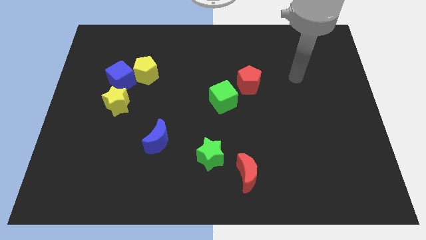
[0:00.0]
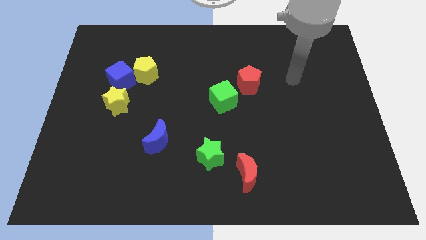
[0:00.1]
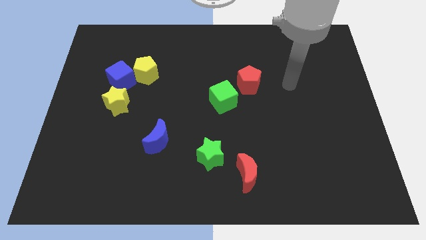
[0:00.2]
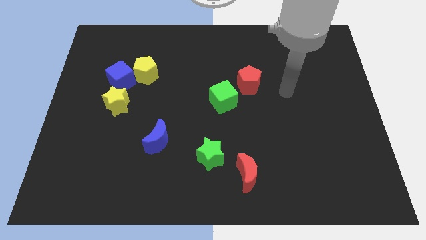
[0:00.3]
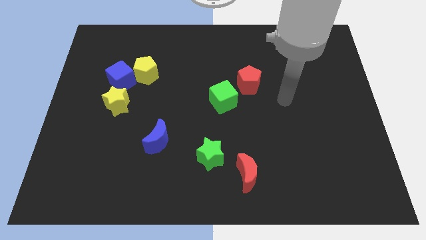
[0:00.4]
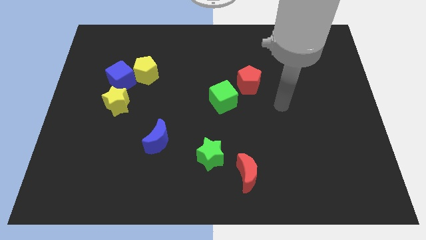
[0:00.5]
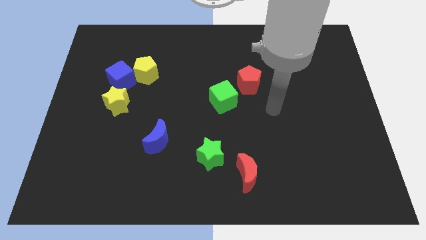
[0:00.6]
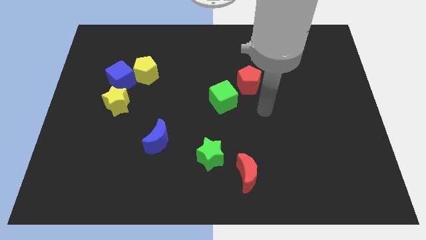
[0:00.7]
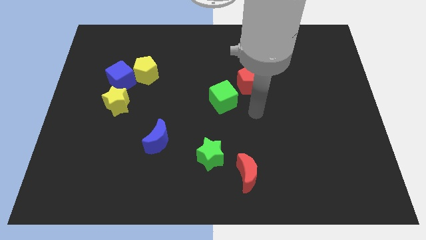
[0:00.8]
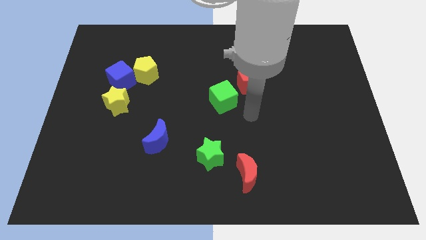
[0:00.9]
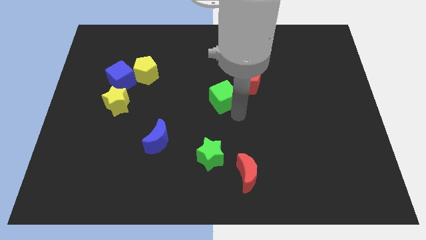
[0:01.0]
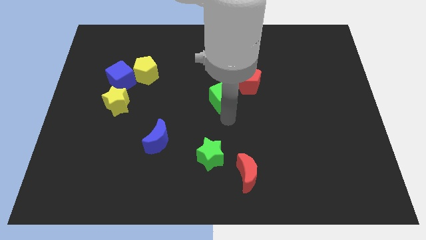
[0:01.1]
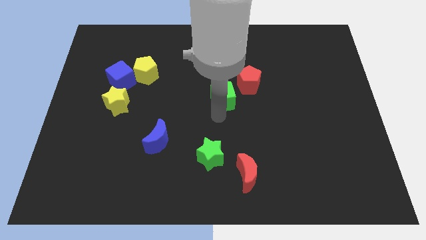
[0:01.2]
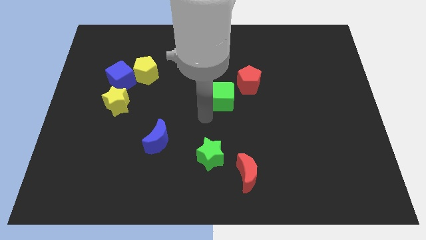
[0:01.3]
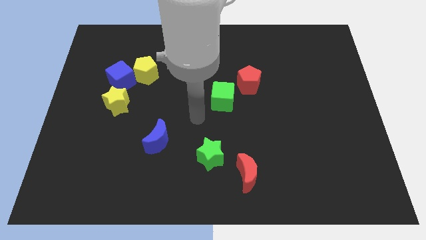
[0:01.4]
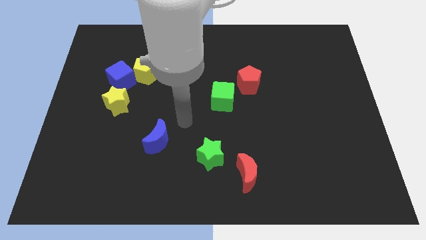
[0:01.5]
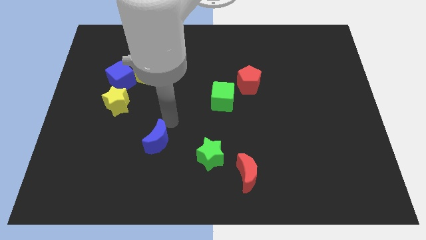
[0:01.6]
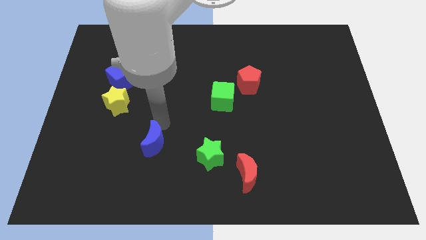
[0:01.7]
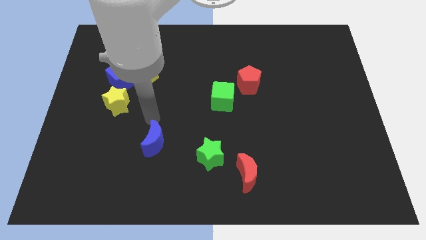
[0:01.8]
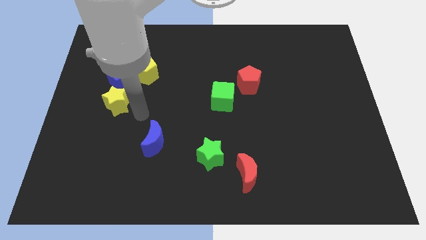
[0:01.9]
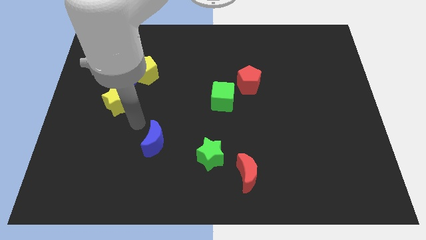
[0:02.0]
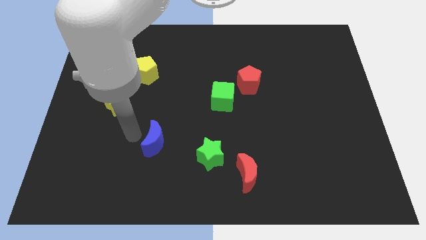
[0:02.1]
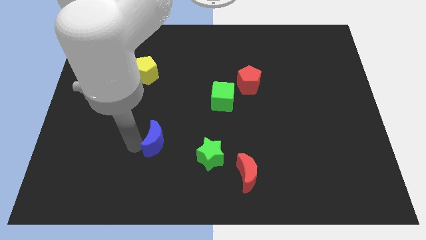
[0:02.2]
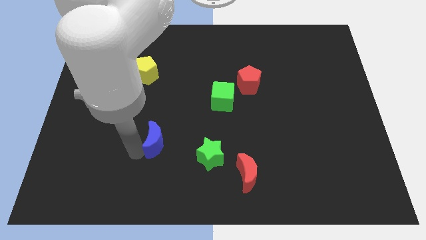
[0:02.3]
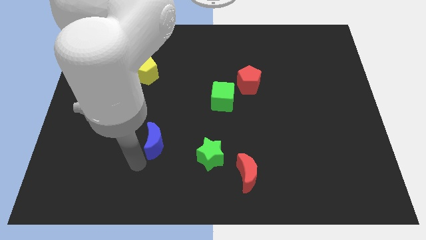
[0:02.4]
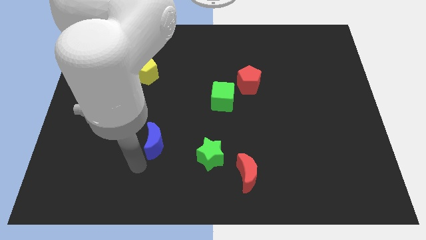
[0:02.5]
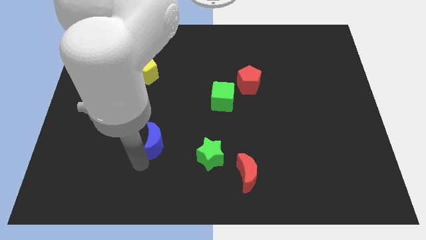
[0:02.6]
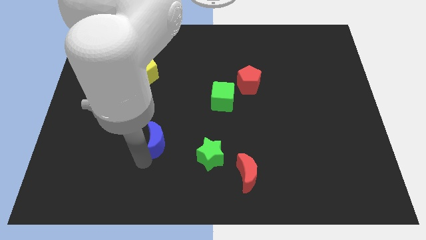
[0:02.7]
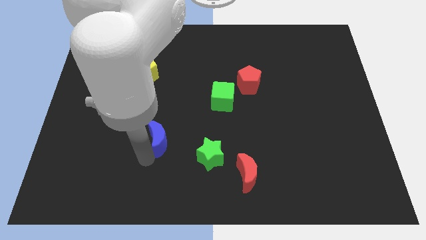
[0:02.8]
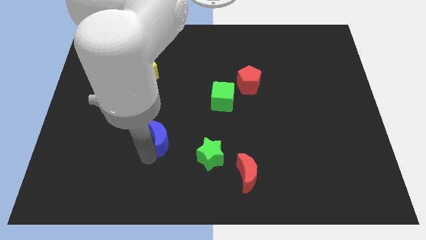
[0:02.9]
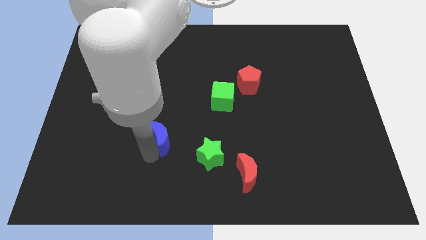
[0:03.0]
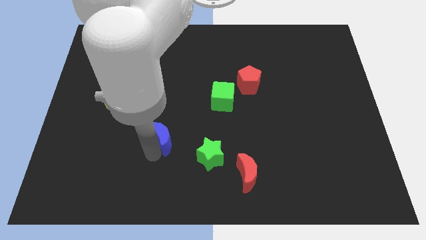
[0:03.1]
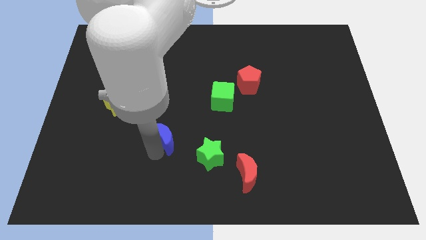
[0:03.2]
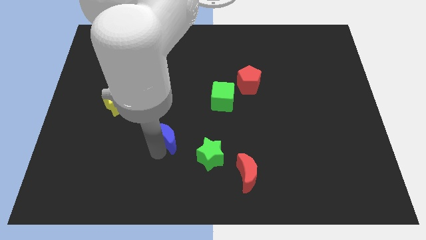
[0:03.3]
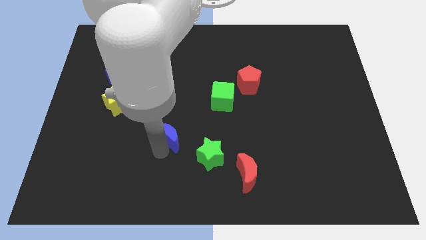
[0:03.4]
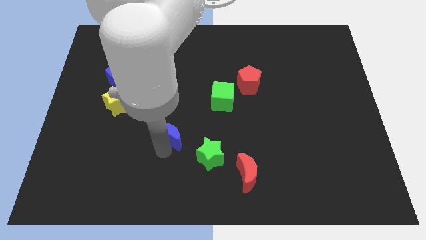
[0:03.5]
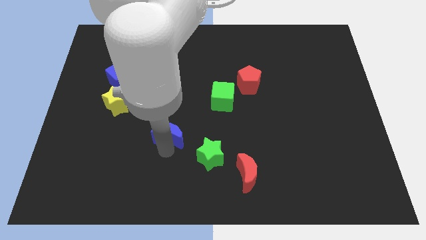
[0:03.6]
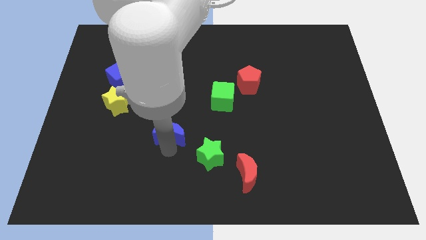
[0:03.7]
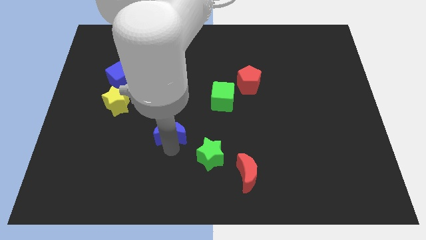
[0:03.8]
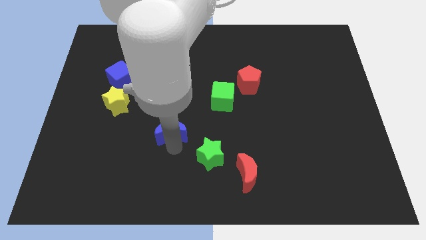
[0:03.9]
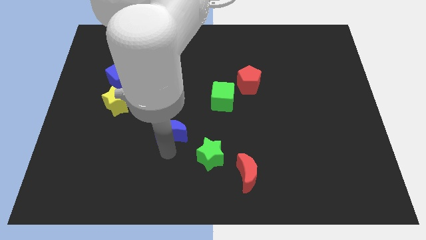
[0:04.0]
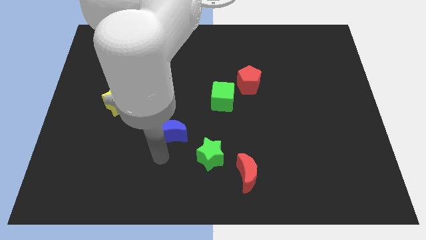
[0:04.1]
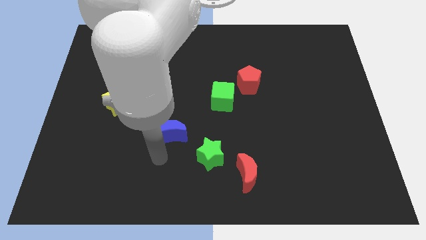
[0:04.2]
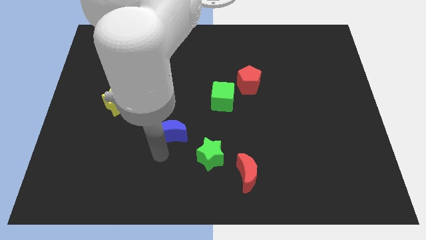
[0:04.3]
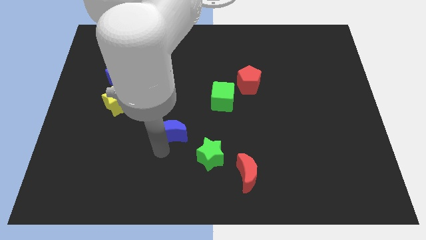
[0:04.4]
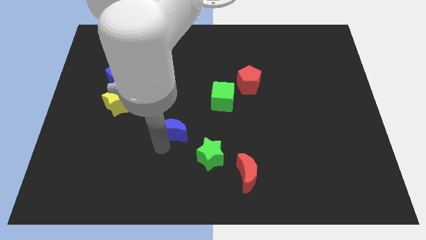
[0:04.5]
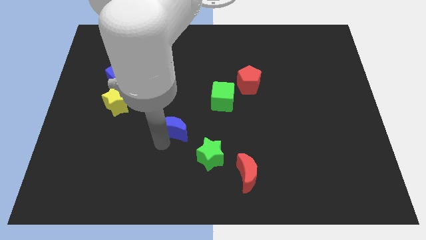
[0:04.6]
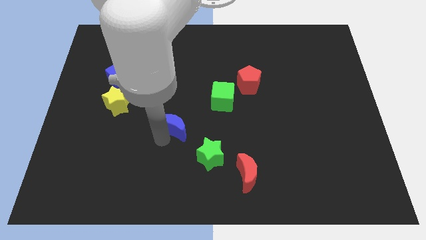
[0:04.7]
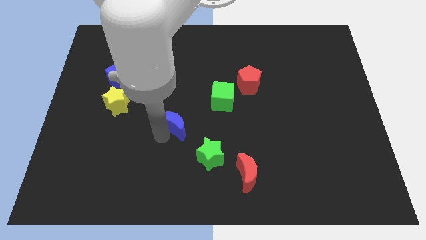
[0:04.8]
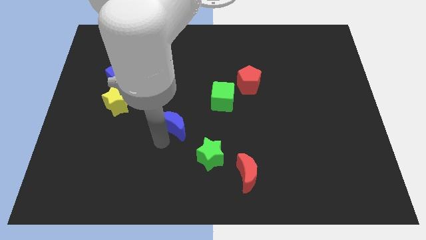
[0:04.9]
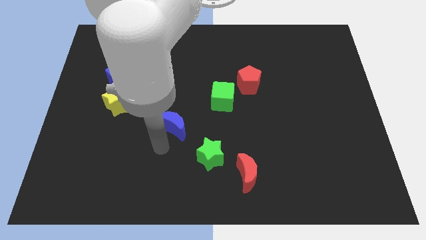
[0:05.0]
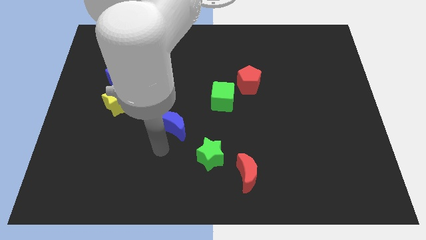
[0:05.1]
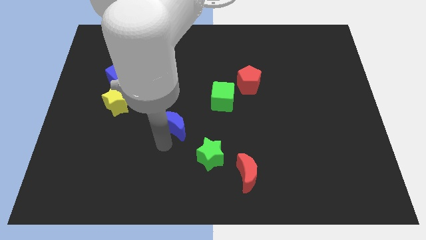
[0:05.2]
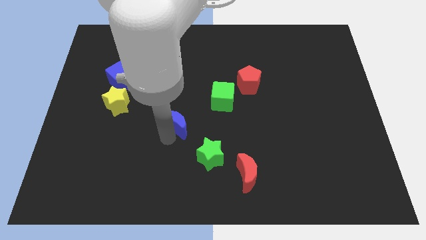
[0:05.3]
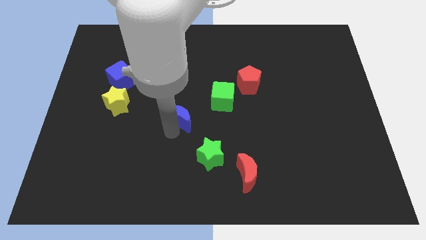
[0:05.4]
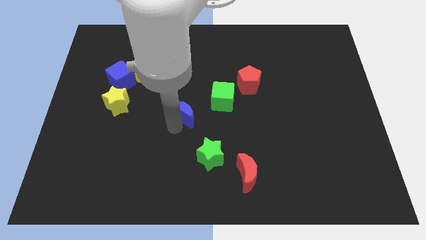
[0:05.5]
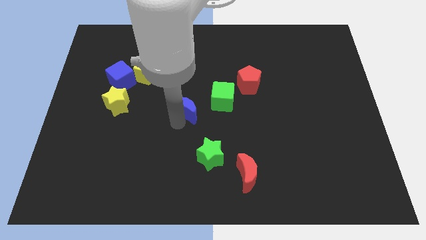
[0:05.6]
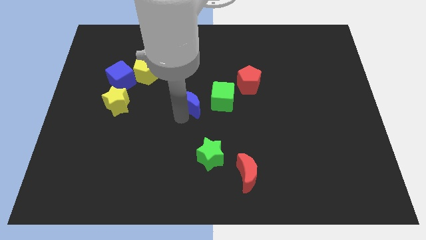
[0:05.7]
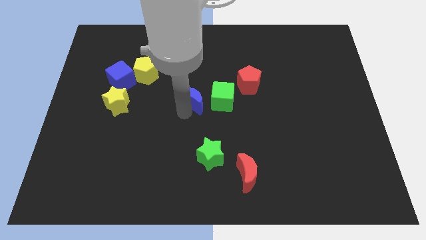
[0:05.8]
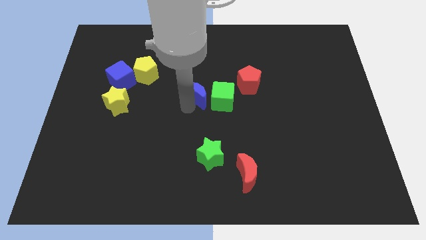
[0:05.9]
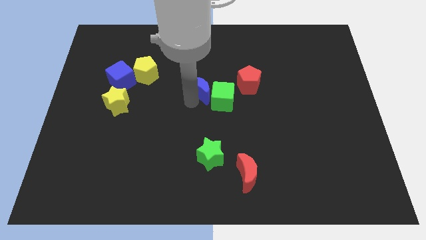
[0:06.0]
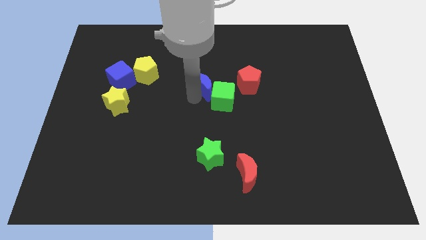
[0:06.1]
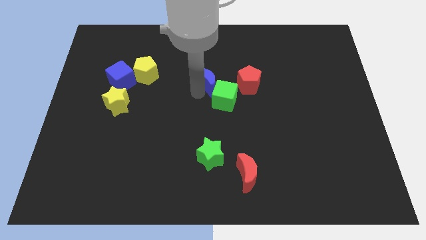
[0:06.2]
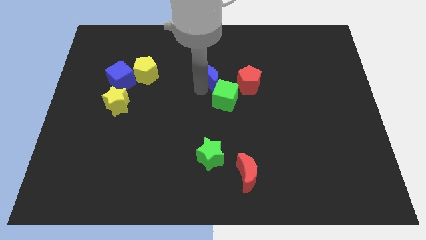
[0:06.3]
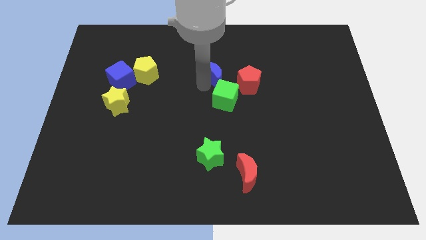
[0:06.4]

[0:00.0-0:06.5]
move the blue moon upwards and to the right

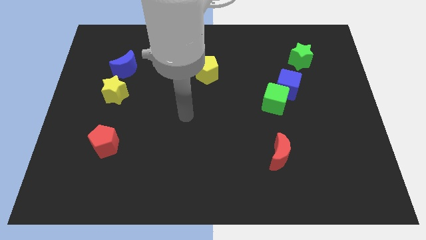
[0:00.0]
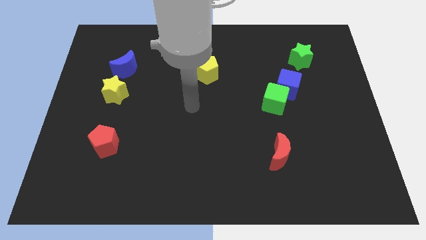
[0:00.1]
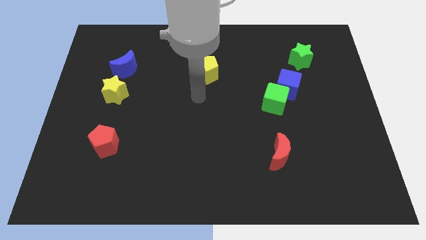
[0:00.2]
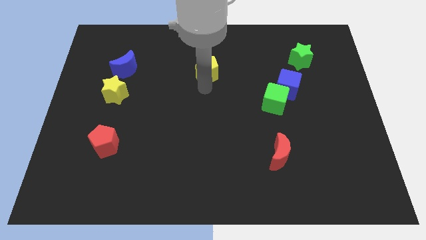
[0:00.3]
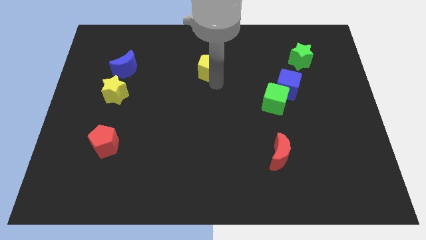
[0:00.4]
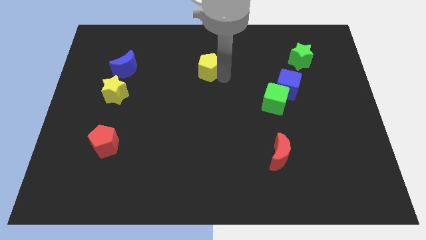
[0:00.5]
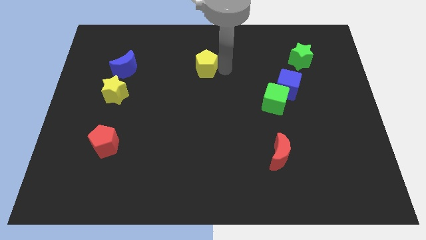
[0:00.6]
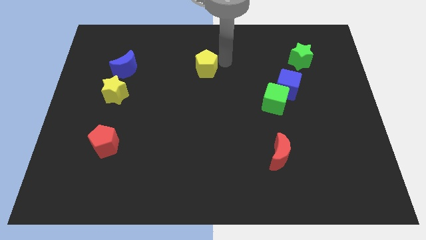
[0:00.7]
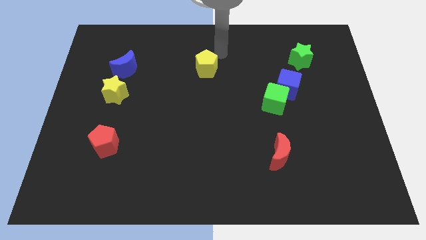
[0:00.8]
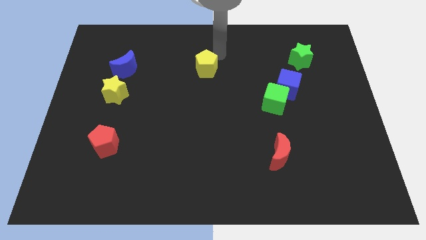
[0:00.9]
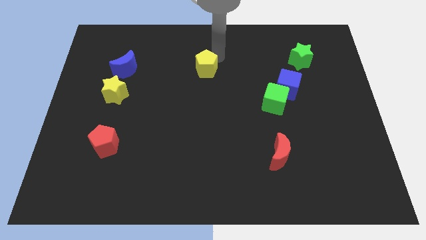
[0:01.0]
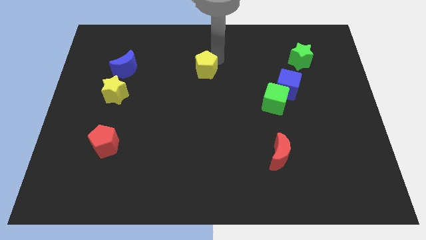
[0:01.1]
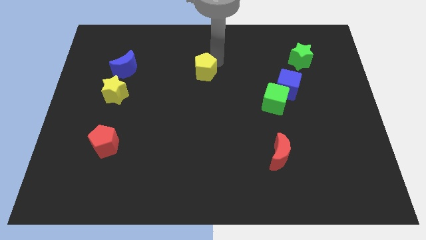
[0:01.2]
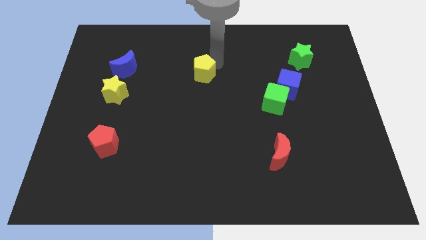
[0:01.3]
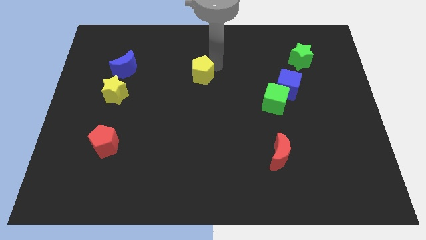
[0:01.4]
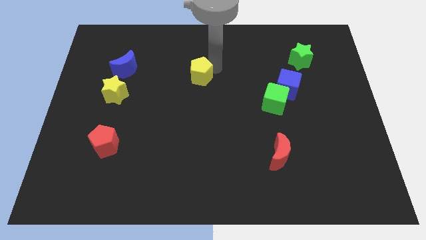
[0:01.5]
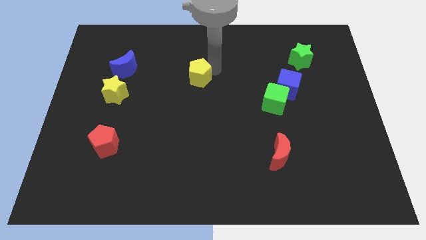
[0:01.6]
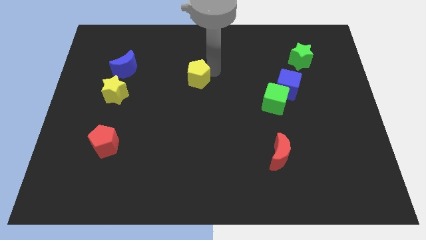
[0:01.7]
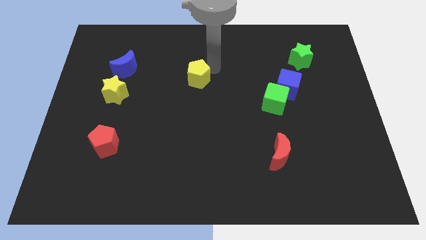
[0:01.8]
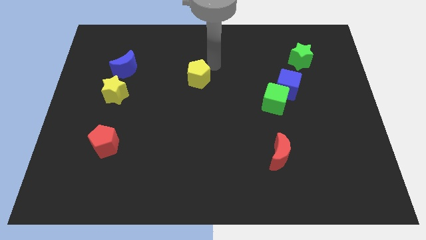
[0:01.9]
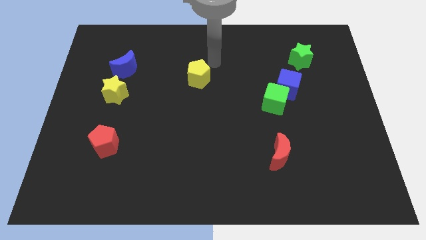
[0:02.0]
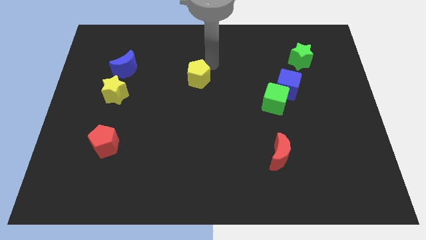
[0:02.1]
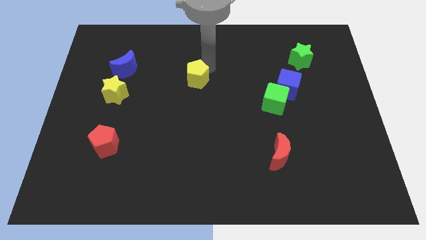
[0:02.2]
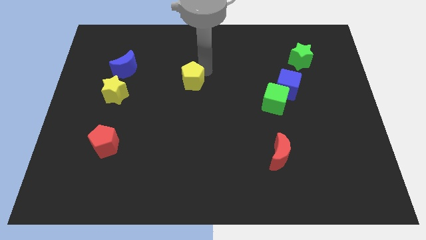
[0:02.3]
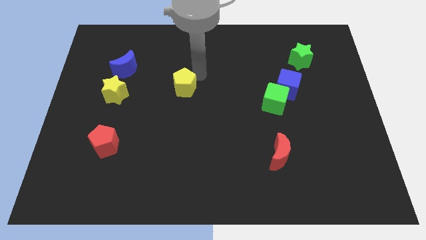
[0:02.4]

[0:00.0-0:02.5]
move the yellow pentagon a bit downwards and then left
